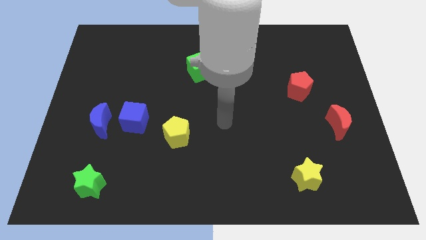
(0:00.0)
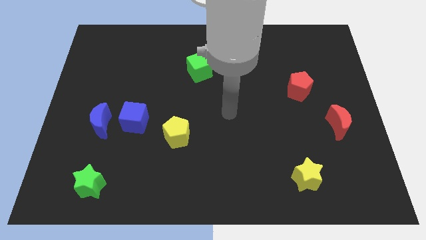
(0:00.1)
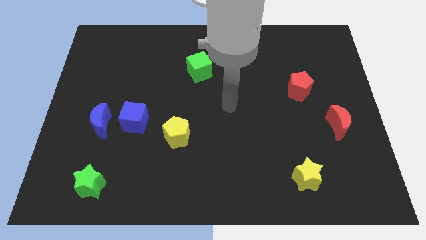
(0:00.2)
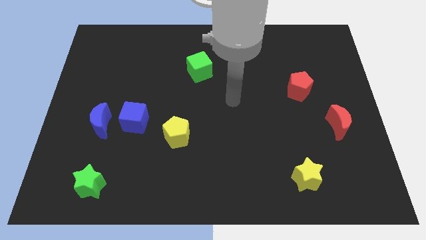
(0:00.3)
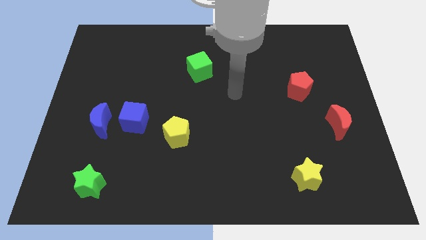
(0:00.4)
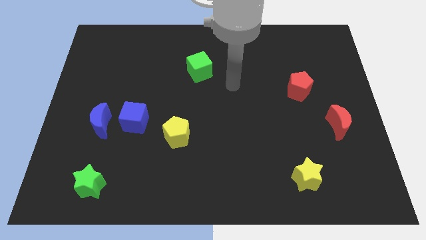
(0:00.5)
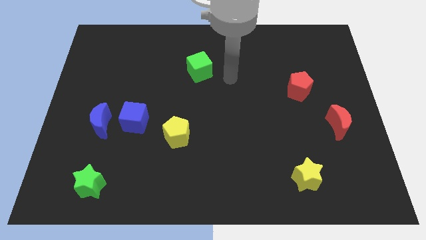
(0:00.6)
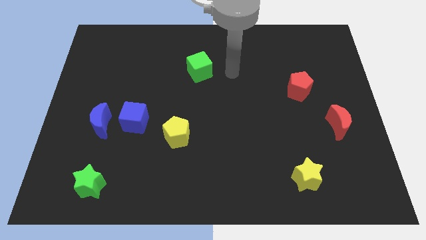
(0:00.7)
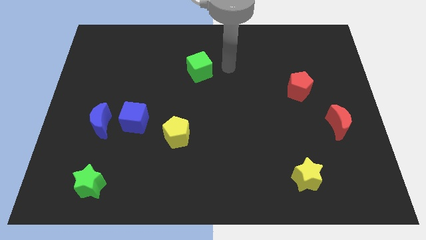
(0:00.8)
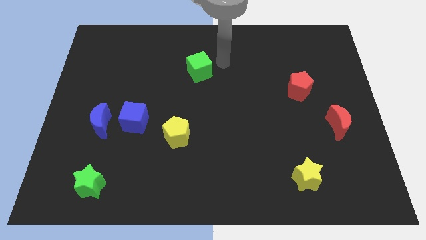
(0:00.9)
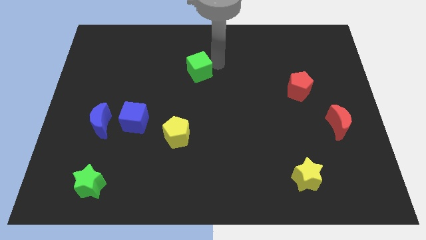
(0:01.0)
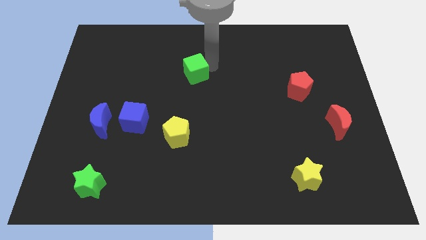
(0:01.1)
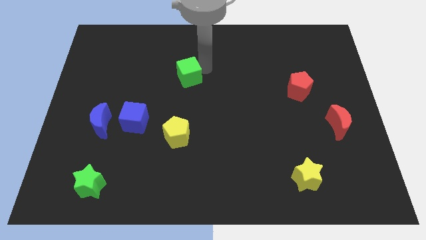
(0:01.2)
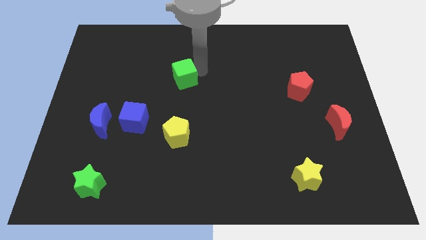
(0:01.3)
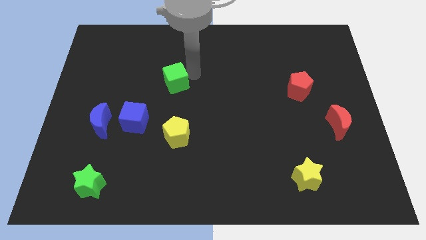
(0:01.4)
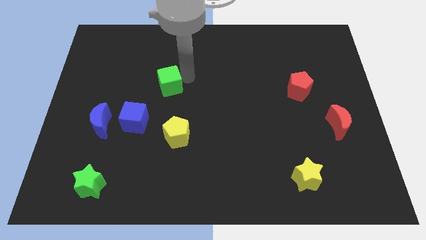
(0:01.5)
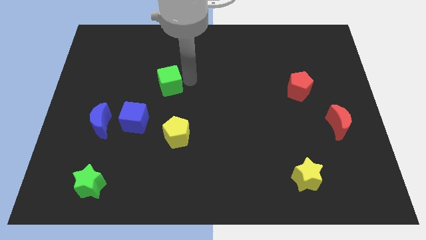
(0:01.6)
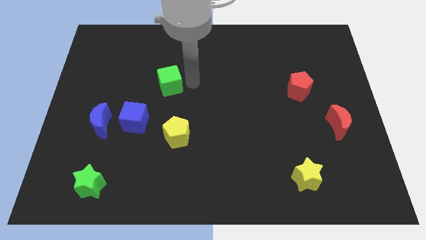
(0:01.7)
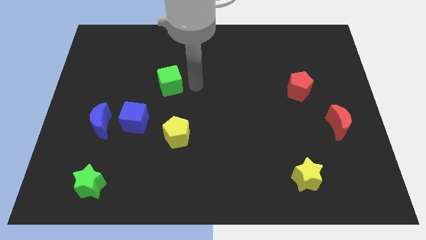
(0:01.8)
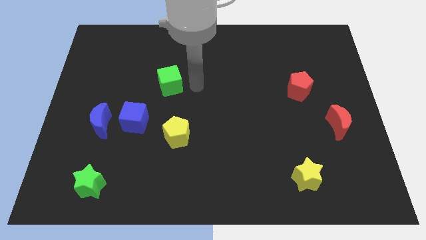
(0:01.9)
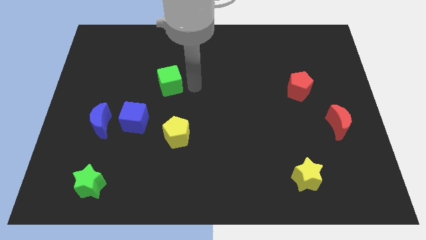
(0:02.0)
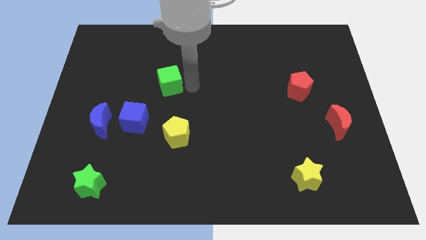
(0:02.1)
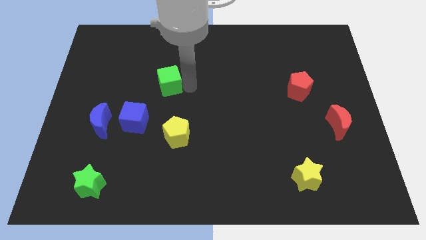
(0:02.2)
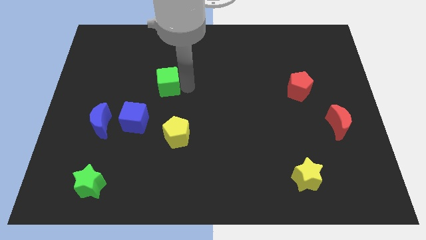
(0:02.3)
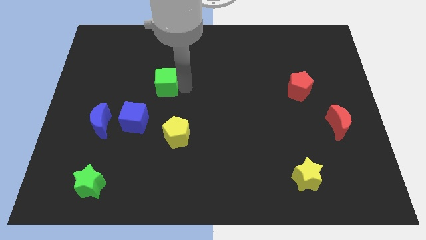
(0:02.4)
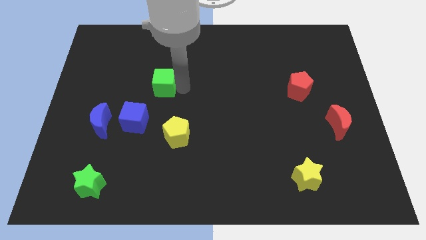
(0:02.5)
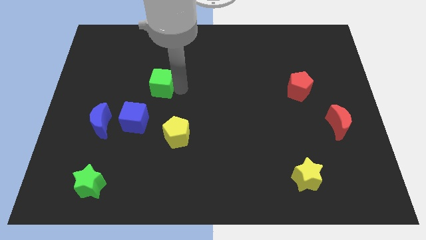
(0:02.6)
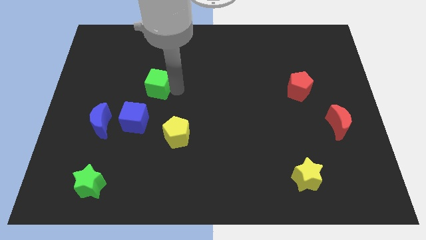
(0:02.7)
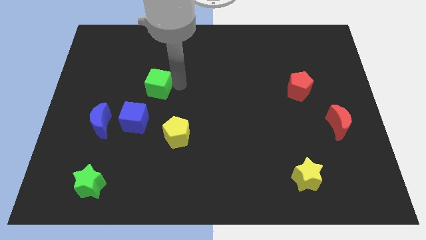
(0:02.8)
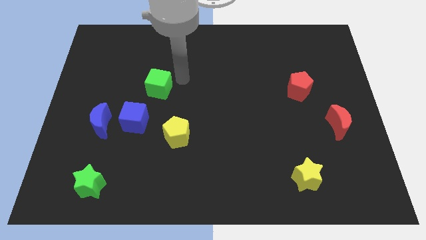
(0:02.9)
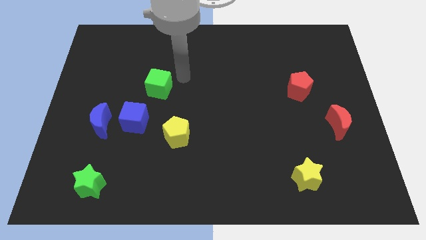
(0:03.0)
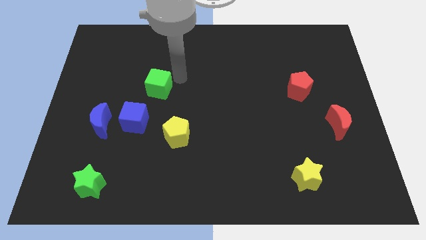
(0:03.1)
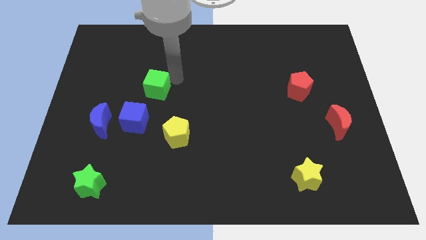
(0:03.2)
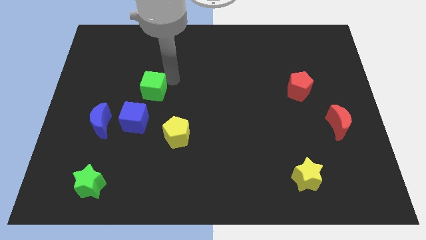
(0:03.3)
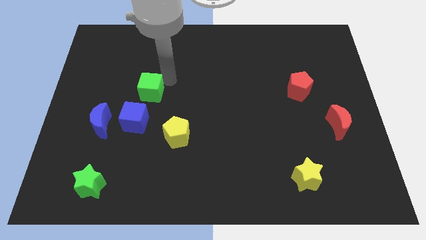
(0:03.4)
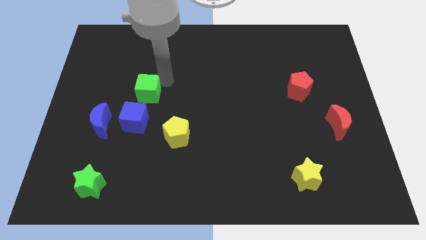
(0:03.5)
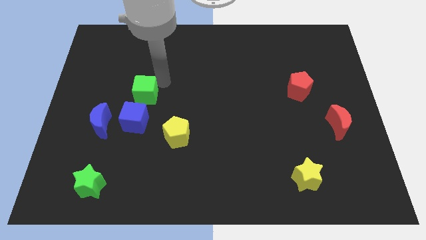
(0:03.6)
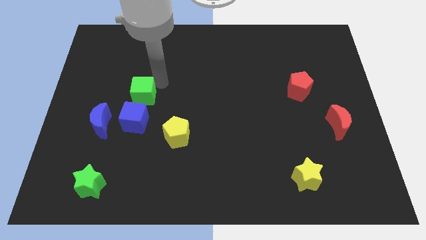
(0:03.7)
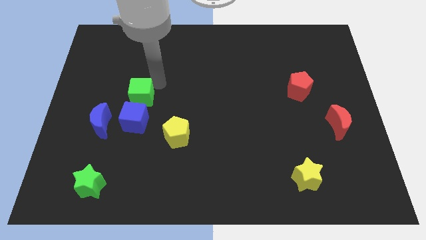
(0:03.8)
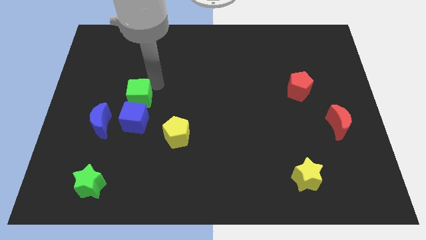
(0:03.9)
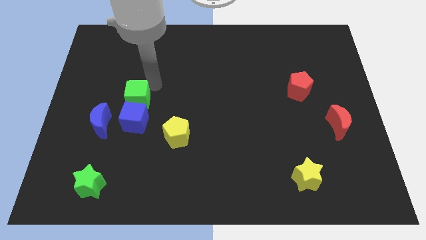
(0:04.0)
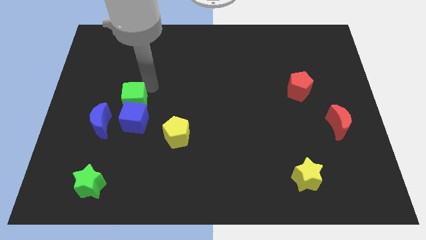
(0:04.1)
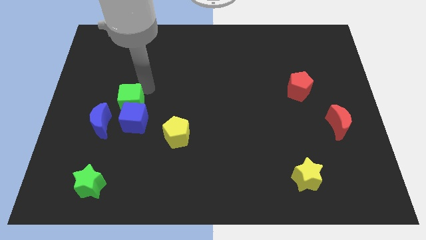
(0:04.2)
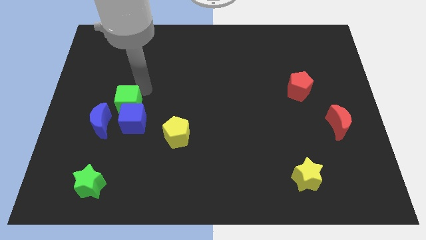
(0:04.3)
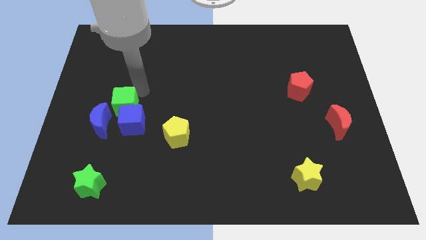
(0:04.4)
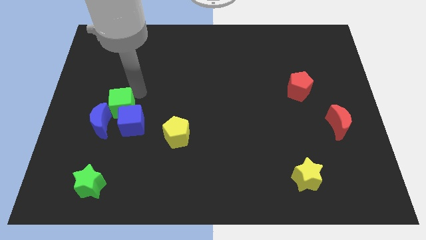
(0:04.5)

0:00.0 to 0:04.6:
slide the green cube down and then left

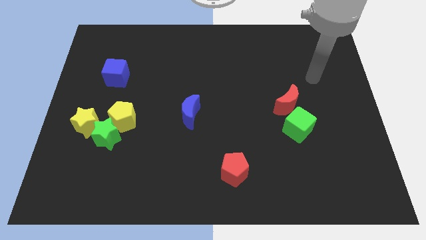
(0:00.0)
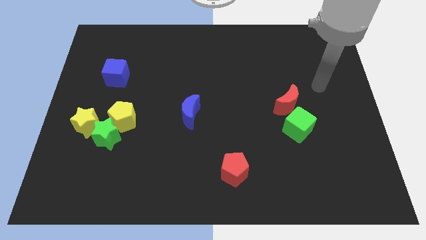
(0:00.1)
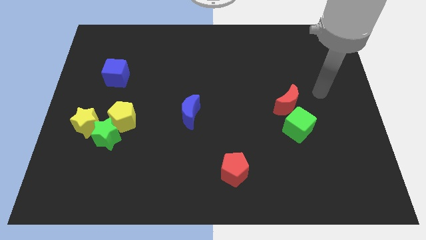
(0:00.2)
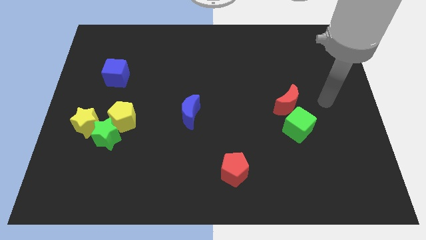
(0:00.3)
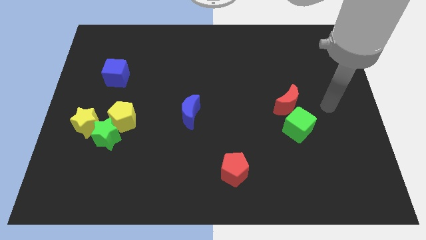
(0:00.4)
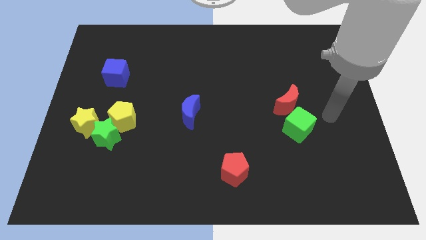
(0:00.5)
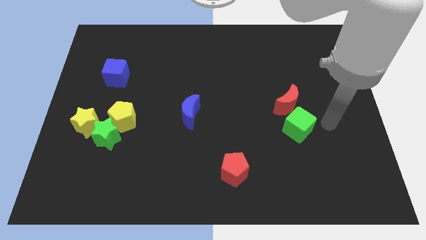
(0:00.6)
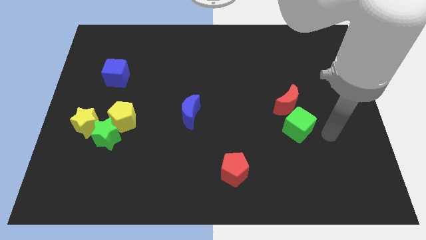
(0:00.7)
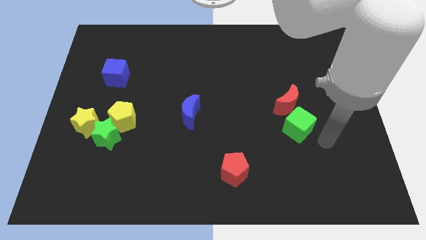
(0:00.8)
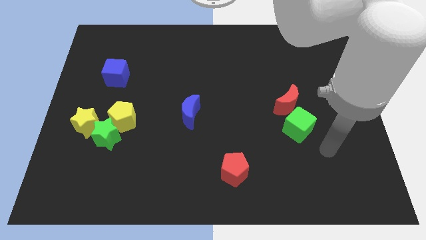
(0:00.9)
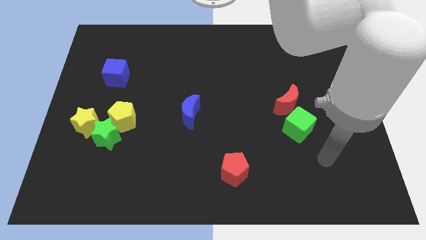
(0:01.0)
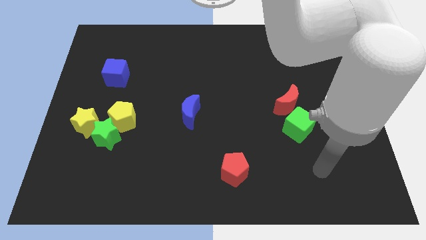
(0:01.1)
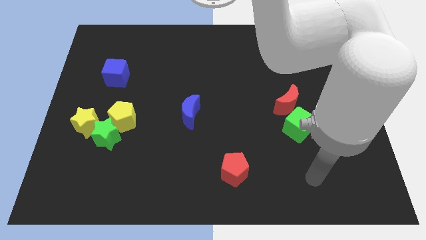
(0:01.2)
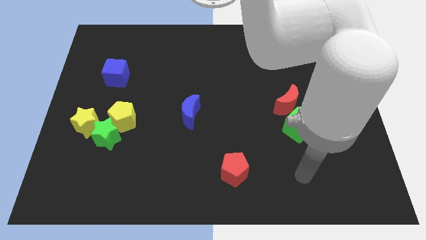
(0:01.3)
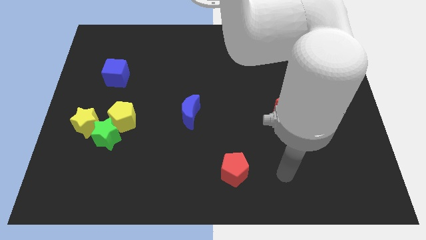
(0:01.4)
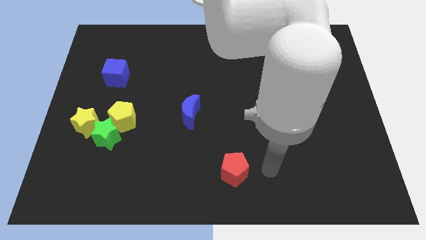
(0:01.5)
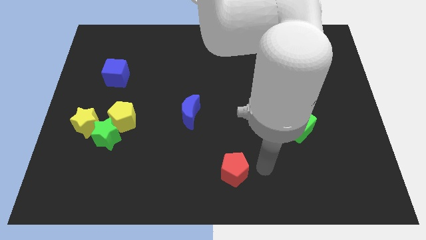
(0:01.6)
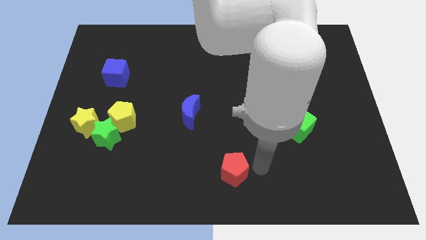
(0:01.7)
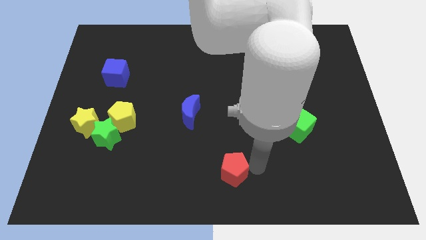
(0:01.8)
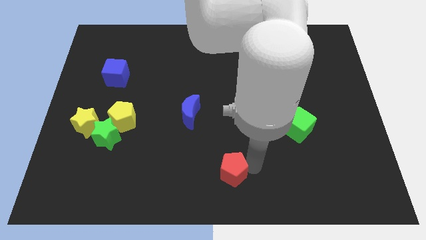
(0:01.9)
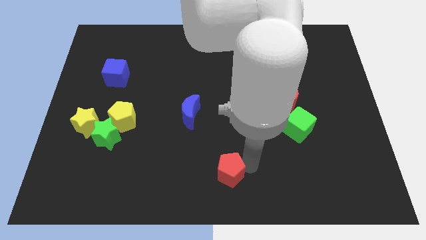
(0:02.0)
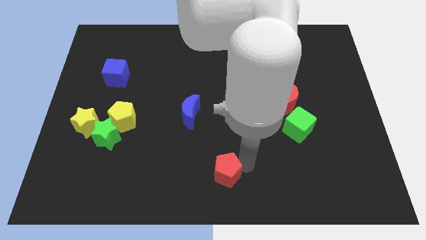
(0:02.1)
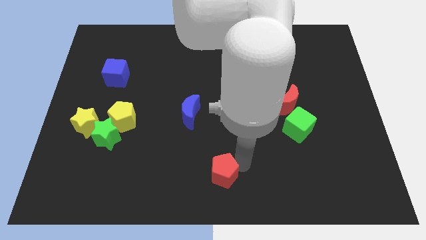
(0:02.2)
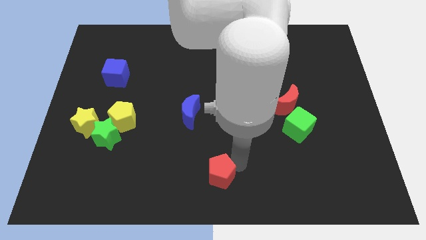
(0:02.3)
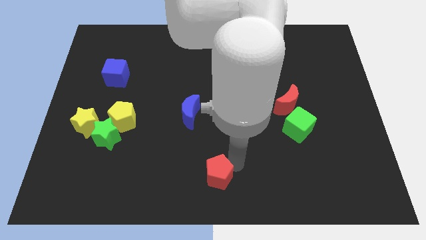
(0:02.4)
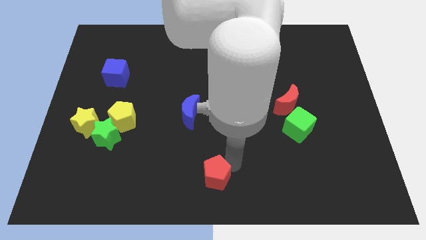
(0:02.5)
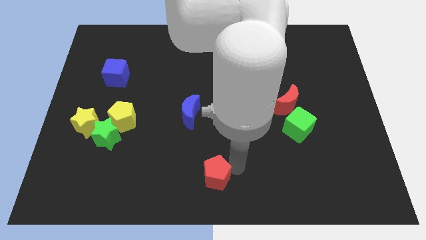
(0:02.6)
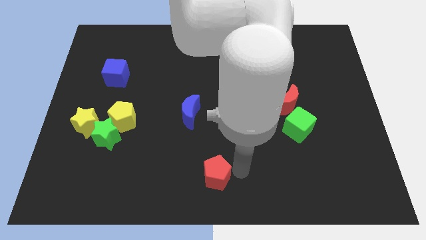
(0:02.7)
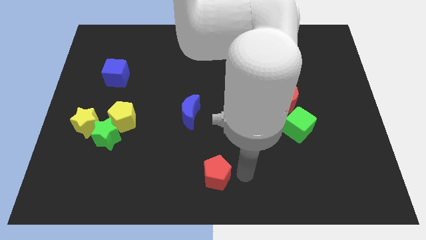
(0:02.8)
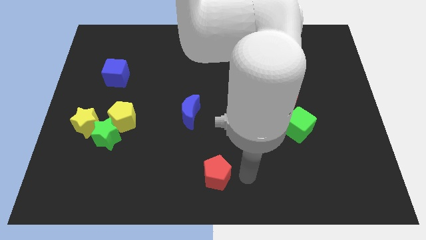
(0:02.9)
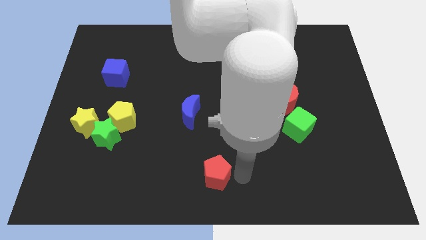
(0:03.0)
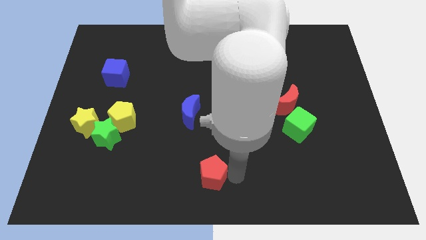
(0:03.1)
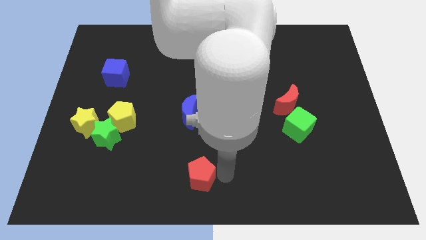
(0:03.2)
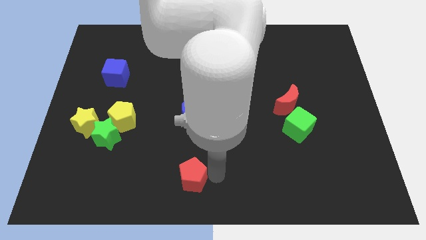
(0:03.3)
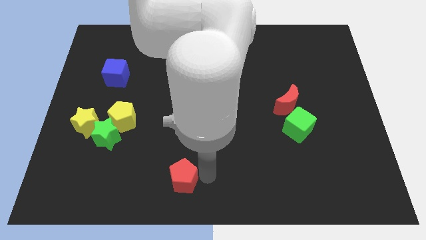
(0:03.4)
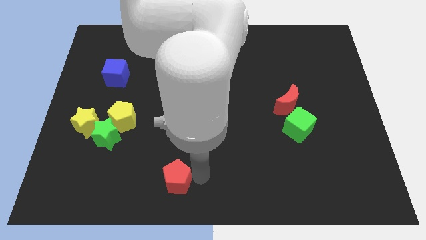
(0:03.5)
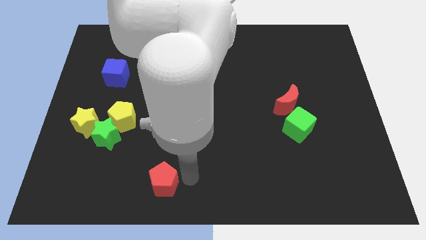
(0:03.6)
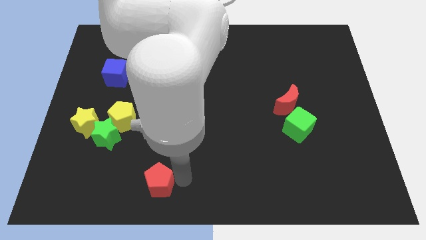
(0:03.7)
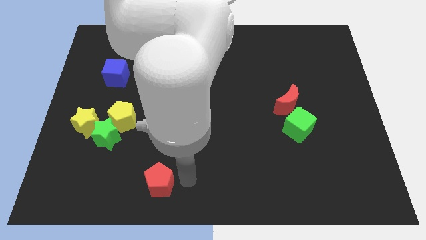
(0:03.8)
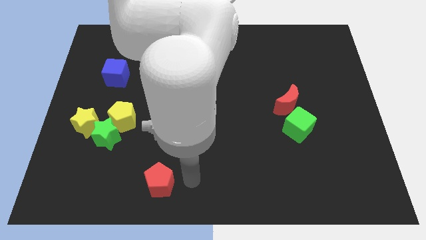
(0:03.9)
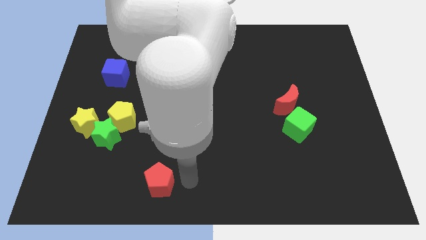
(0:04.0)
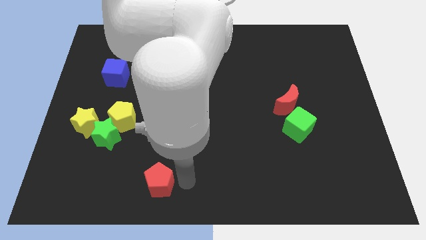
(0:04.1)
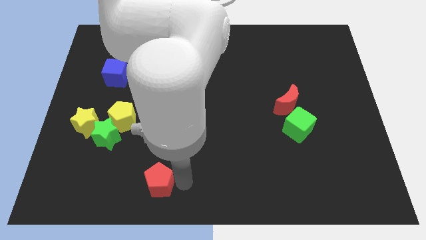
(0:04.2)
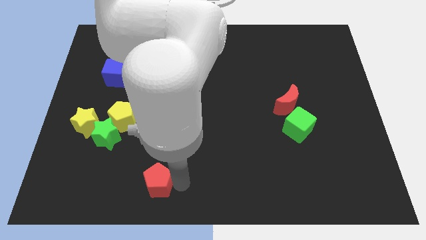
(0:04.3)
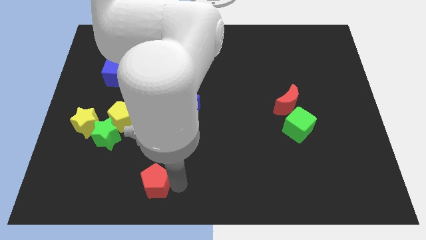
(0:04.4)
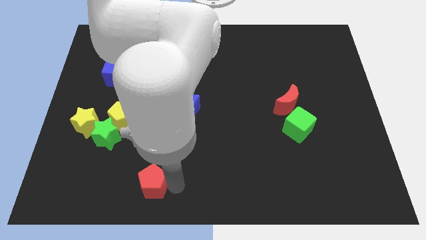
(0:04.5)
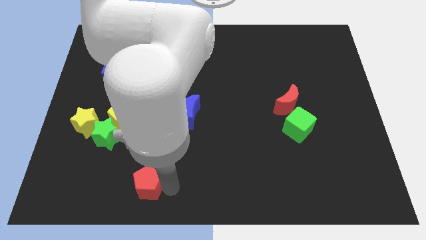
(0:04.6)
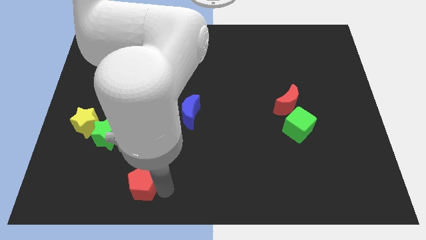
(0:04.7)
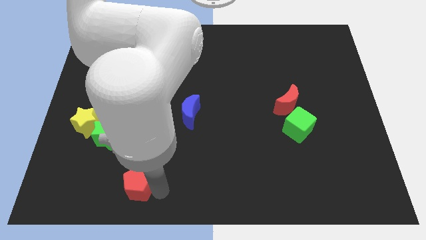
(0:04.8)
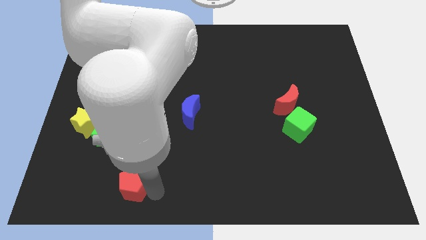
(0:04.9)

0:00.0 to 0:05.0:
move the red pentagon to the left
